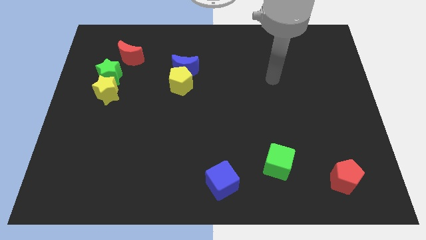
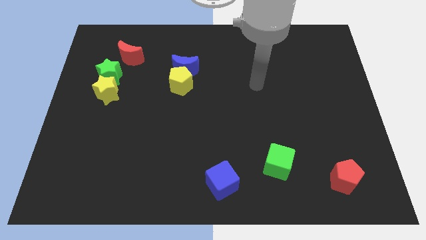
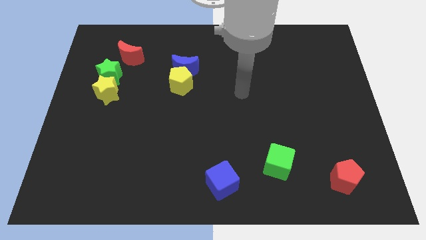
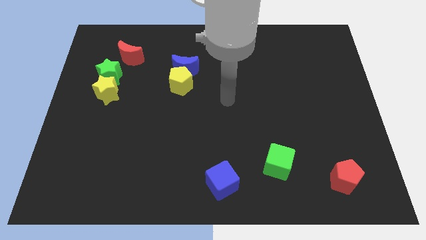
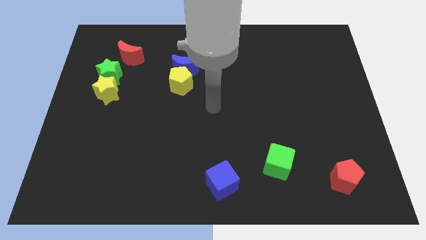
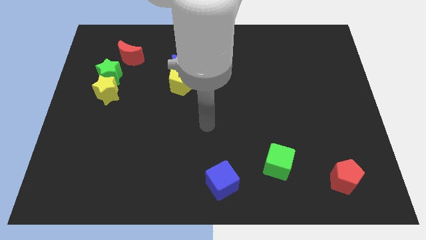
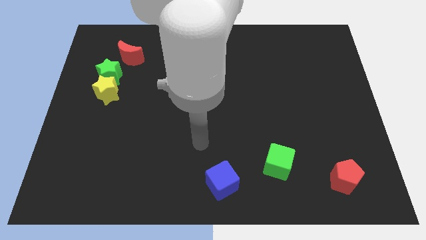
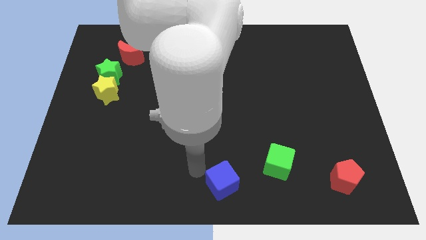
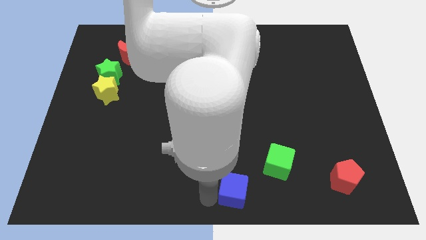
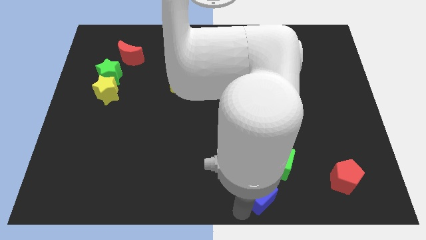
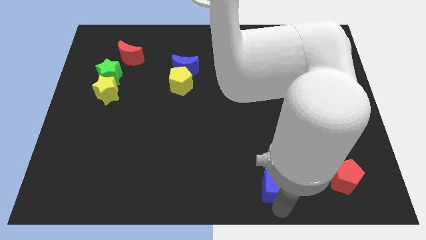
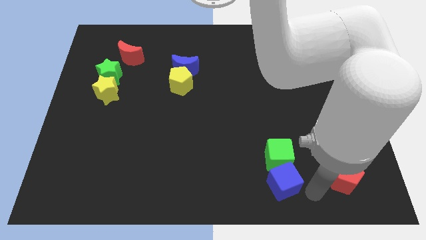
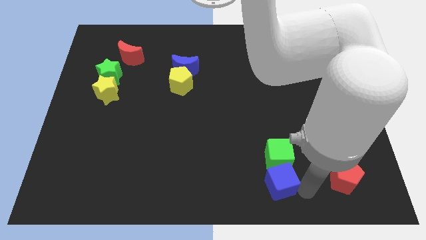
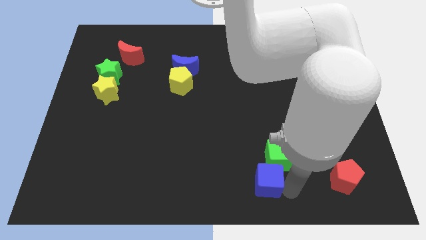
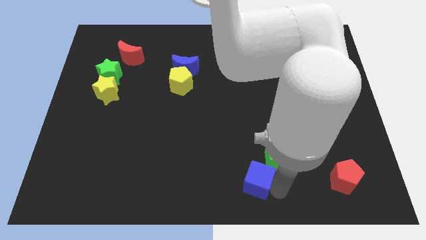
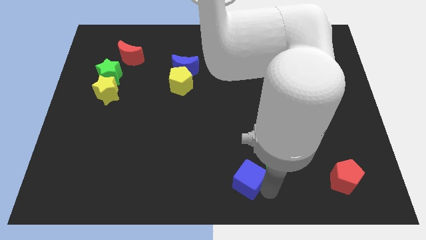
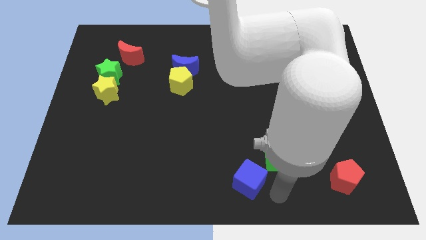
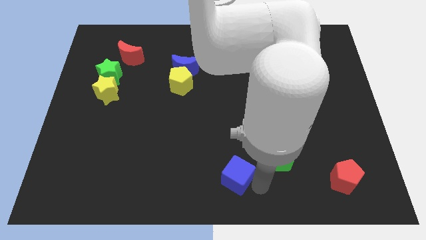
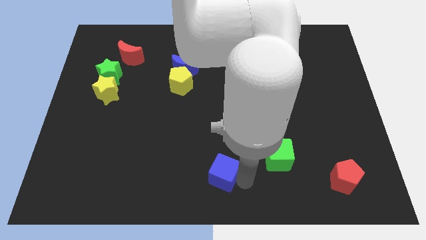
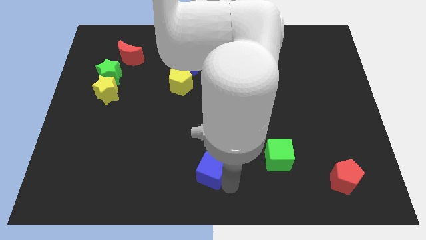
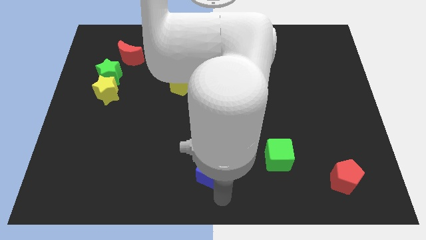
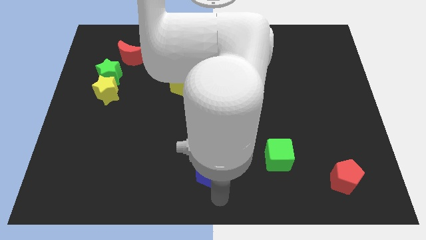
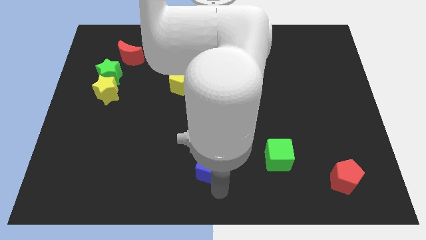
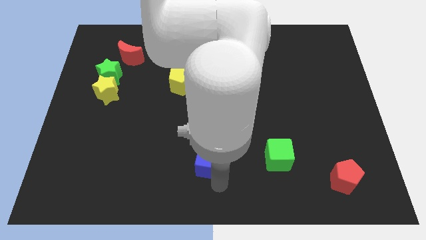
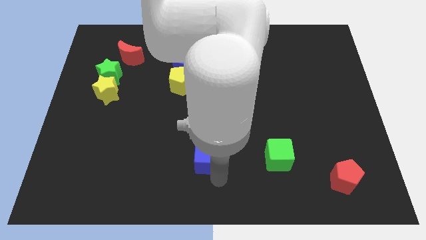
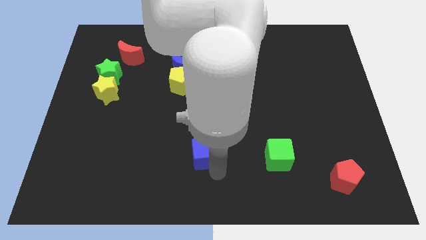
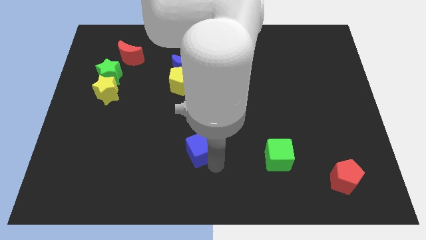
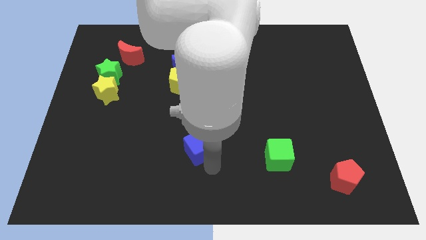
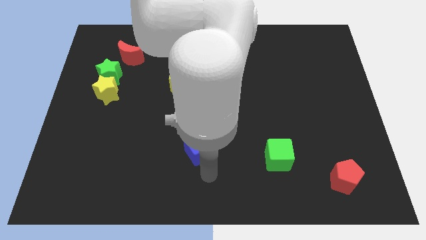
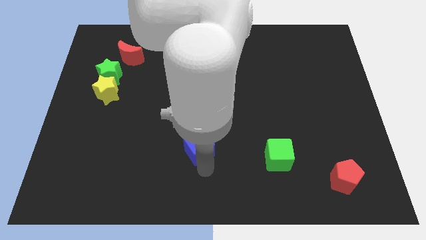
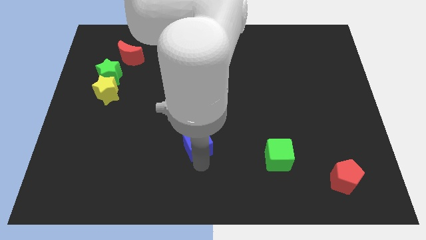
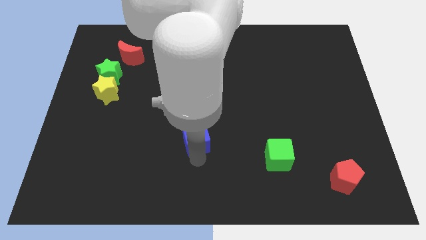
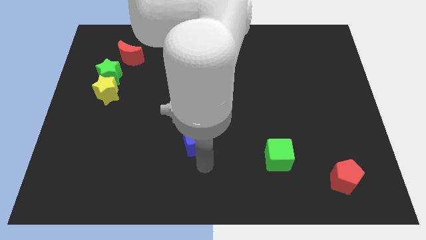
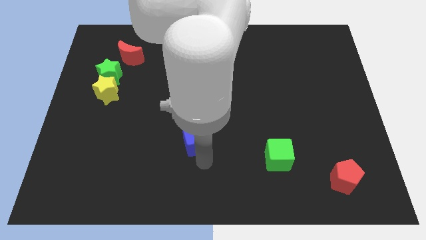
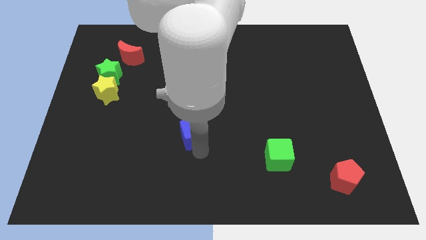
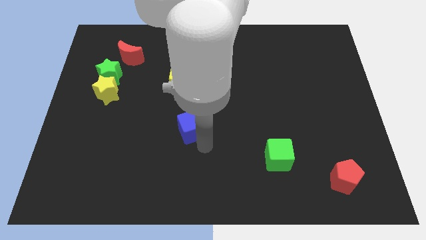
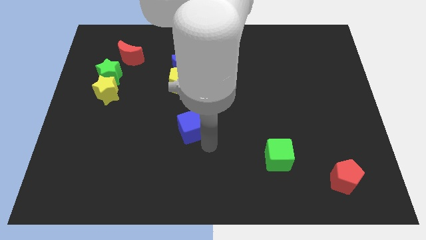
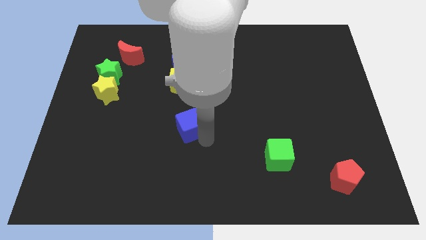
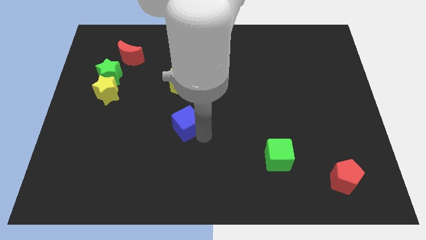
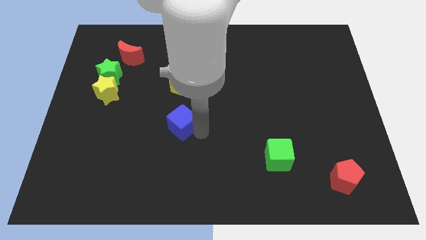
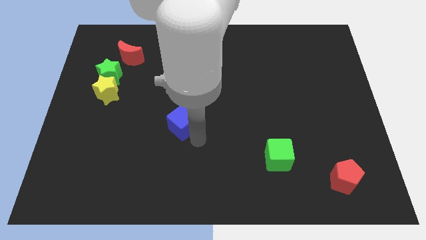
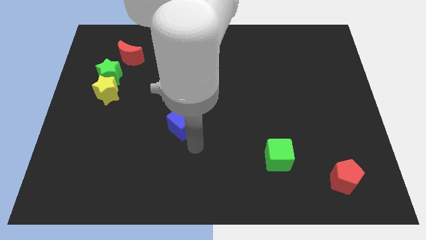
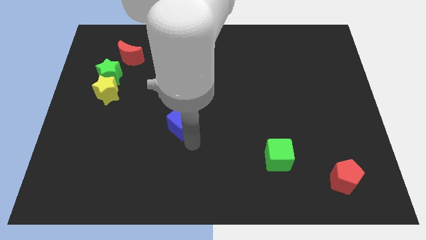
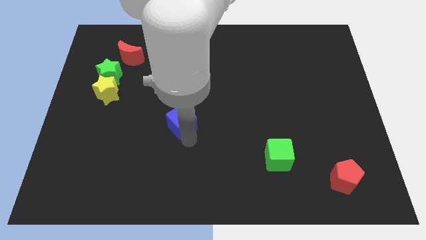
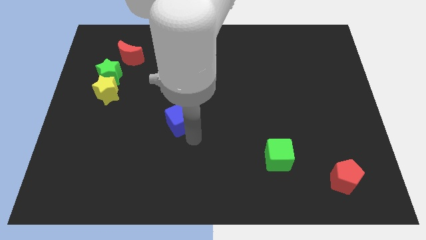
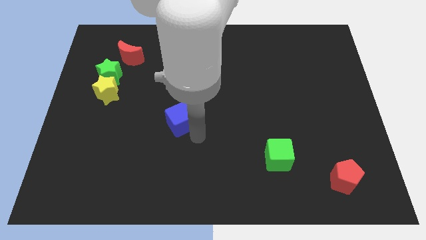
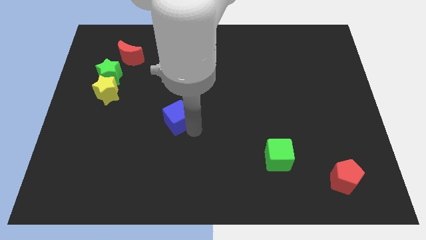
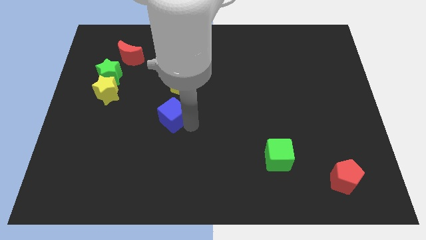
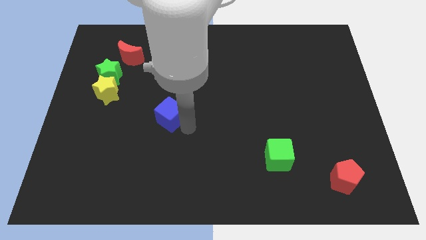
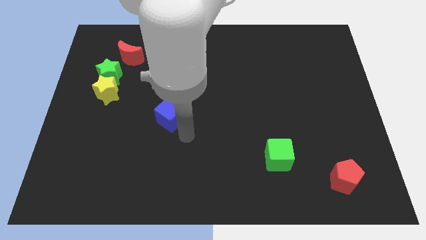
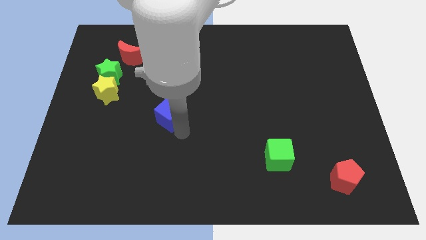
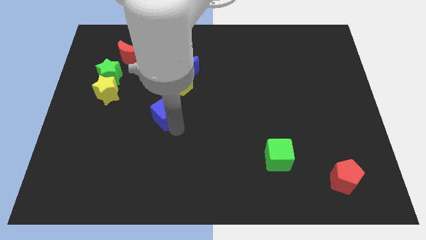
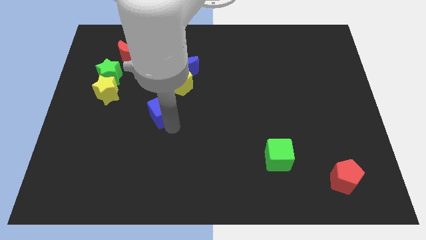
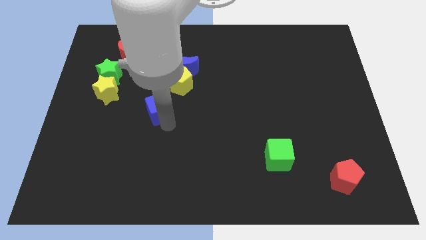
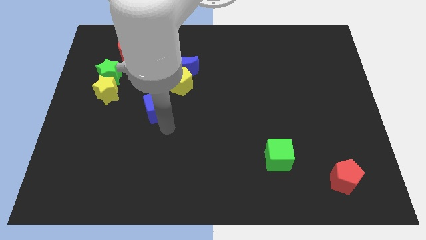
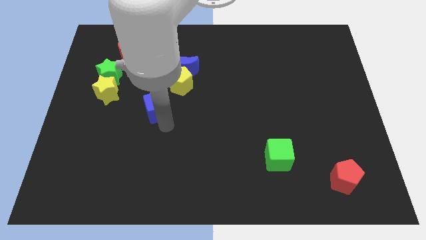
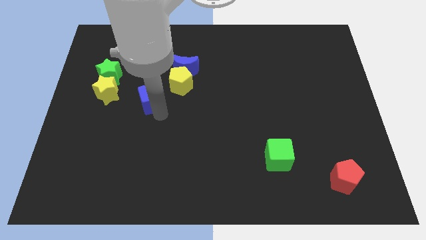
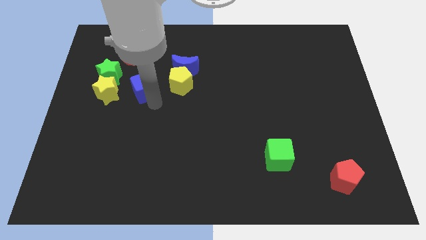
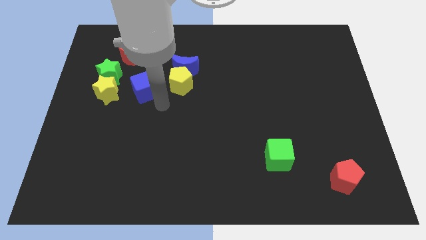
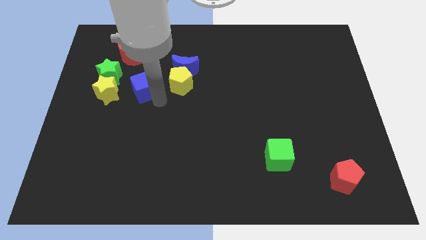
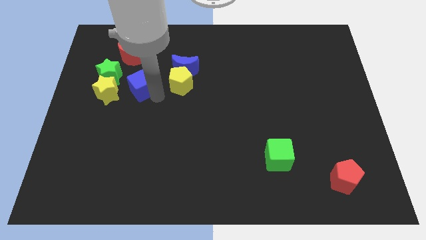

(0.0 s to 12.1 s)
slide the blue cube to the top right of the yellow star
